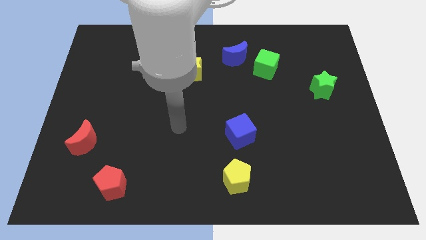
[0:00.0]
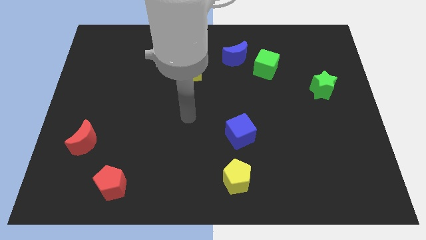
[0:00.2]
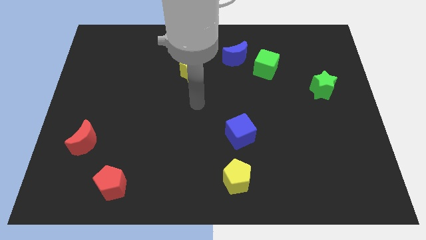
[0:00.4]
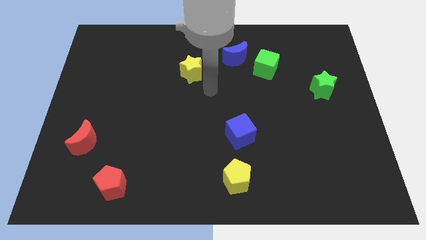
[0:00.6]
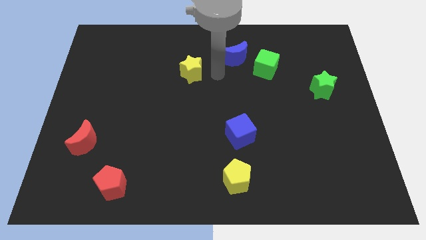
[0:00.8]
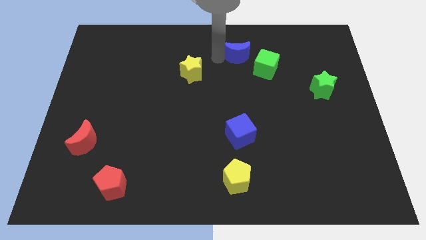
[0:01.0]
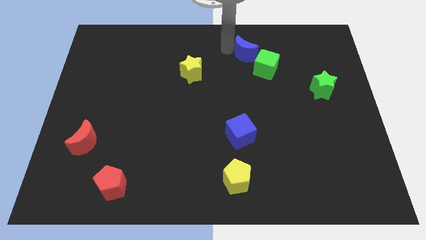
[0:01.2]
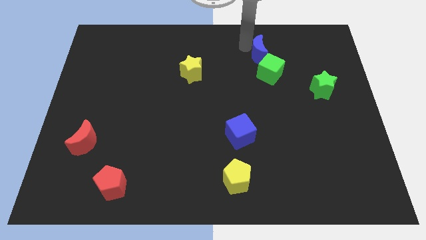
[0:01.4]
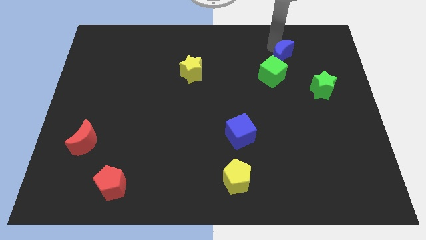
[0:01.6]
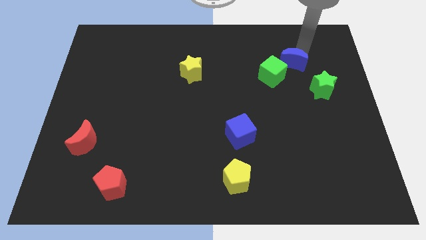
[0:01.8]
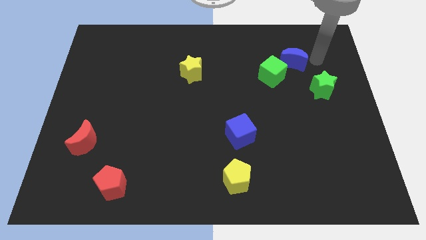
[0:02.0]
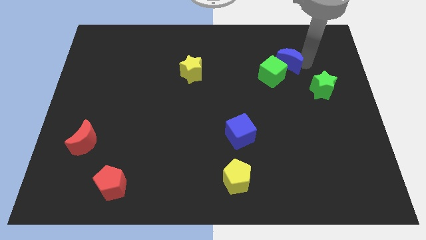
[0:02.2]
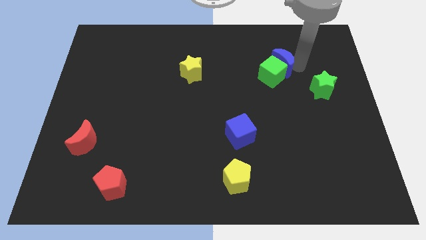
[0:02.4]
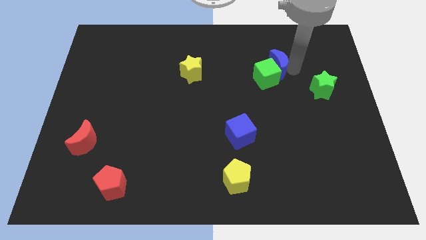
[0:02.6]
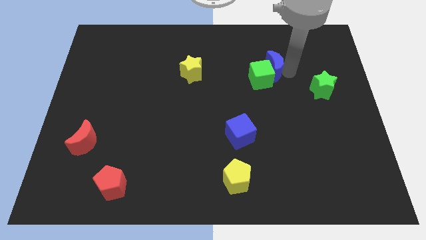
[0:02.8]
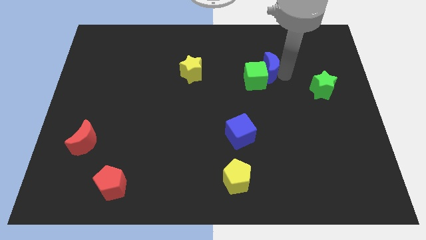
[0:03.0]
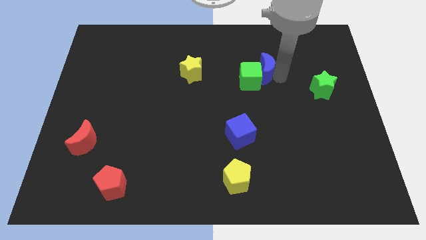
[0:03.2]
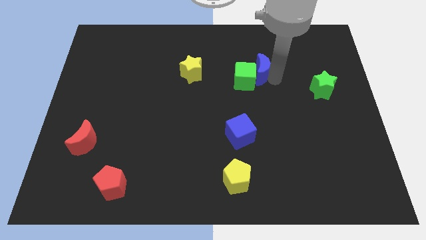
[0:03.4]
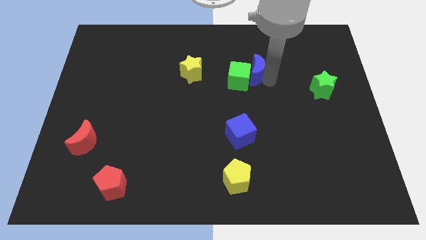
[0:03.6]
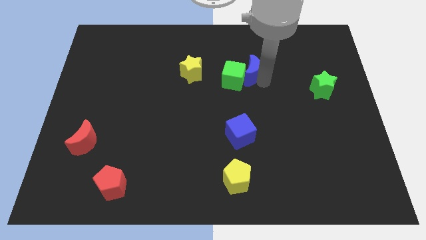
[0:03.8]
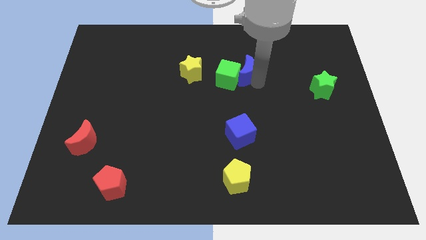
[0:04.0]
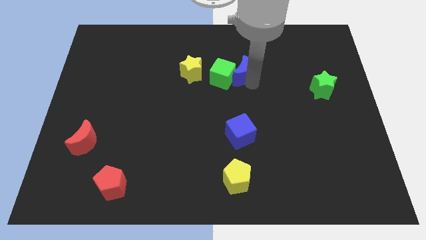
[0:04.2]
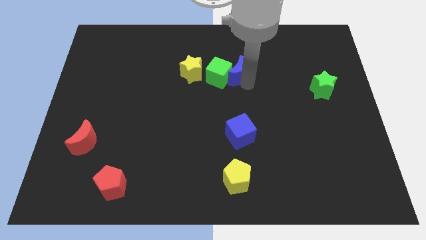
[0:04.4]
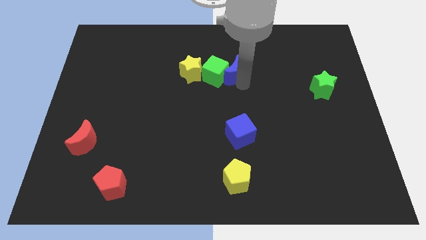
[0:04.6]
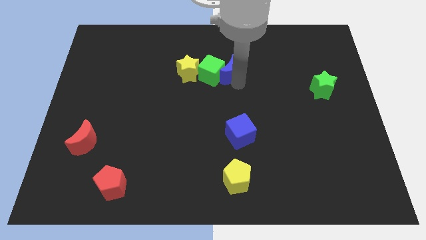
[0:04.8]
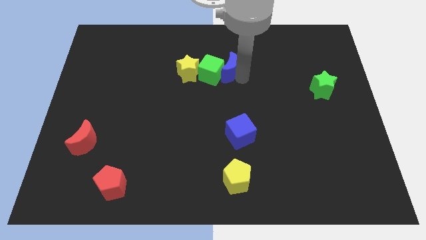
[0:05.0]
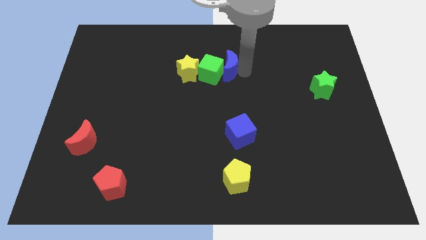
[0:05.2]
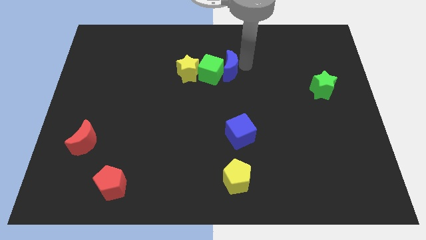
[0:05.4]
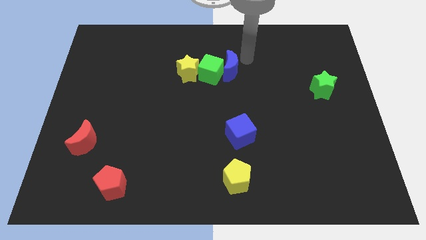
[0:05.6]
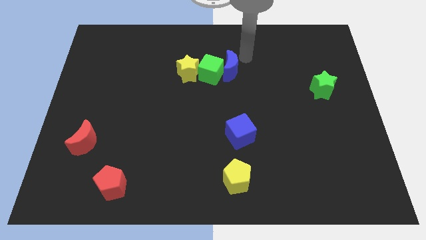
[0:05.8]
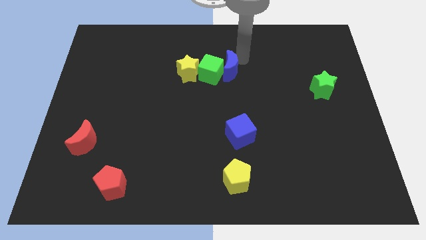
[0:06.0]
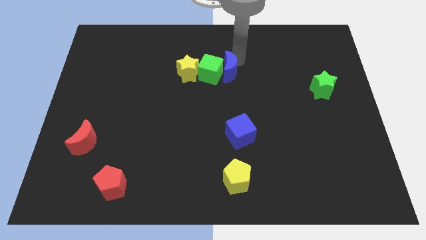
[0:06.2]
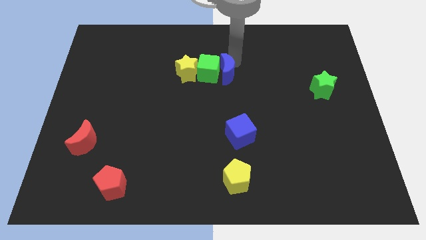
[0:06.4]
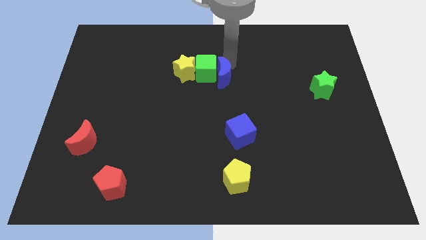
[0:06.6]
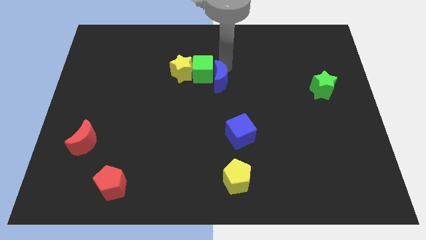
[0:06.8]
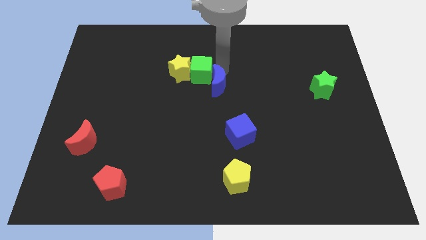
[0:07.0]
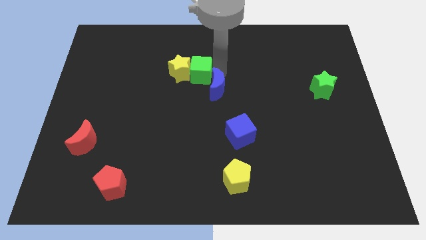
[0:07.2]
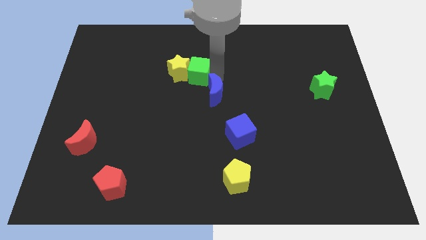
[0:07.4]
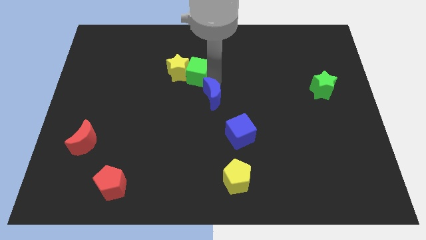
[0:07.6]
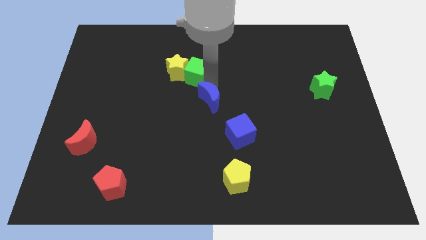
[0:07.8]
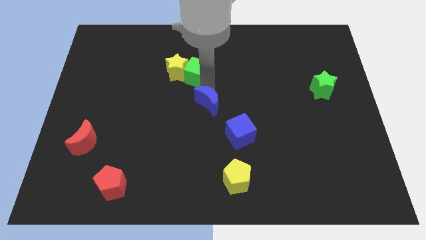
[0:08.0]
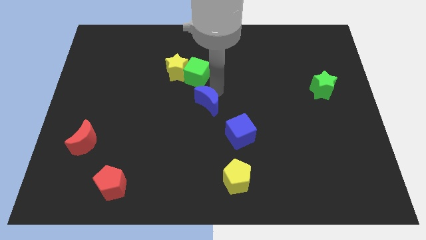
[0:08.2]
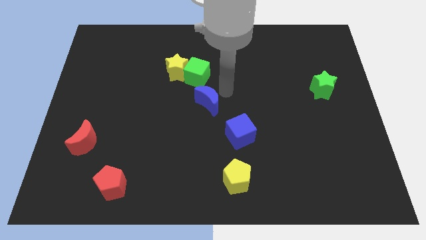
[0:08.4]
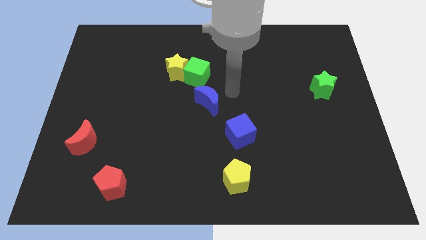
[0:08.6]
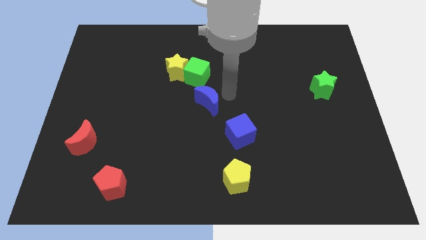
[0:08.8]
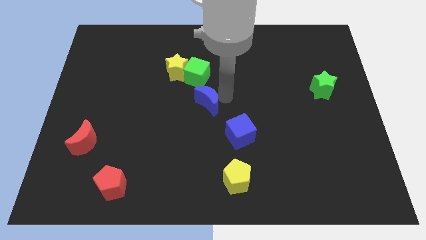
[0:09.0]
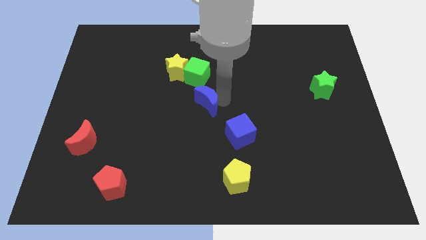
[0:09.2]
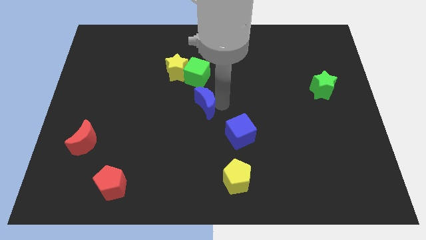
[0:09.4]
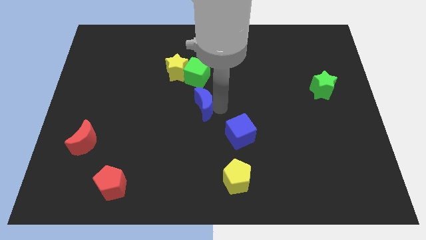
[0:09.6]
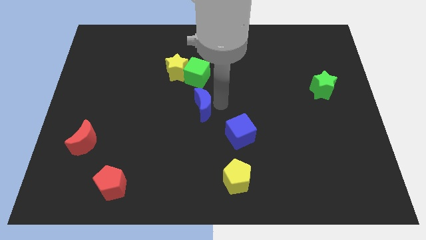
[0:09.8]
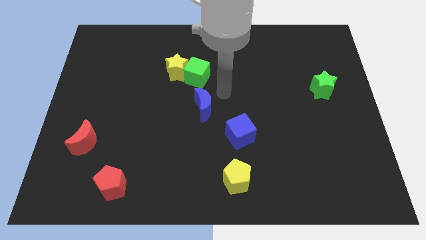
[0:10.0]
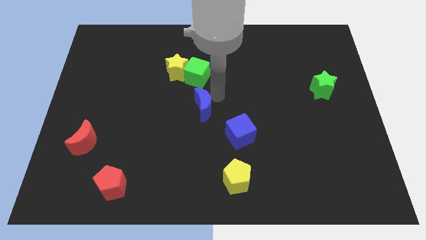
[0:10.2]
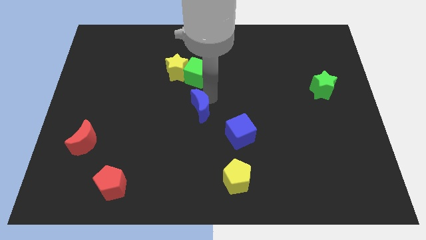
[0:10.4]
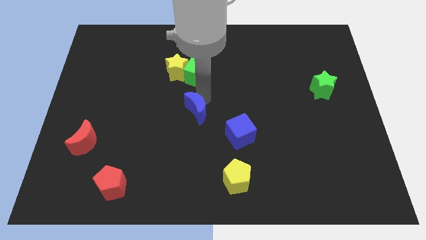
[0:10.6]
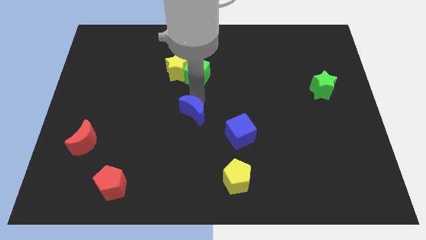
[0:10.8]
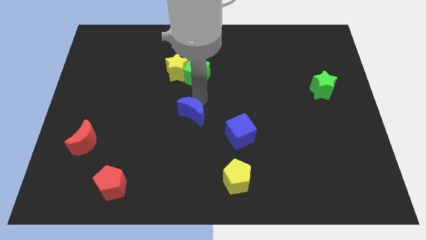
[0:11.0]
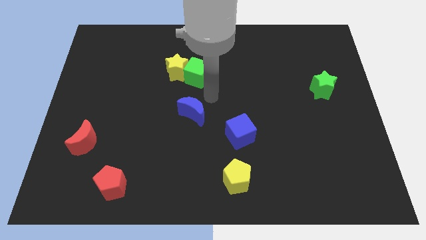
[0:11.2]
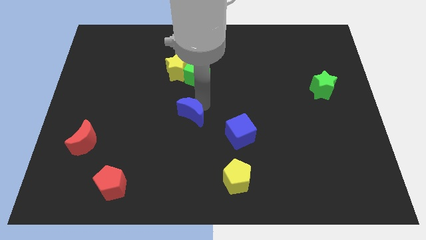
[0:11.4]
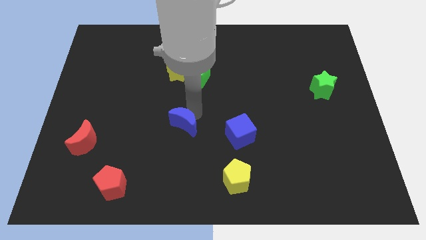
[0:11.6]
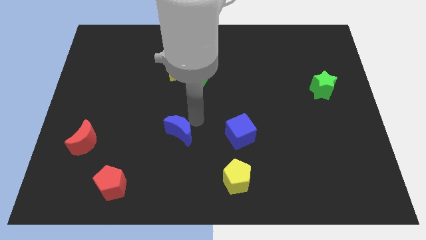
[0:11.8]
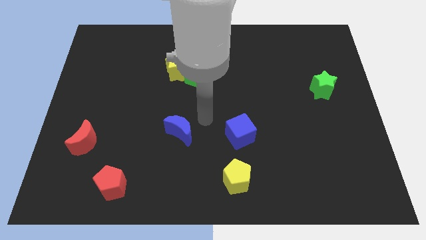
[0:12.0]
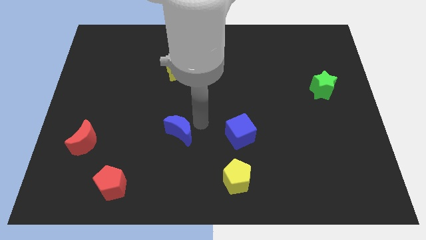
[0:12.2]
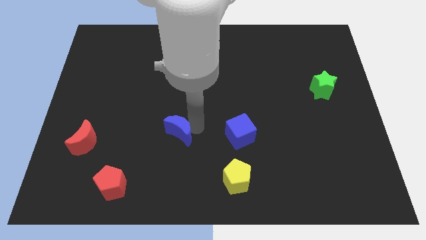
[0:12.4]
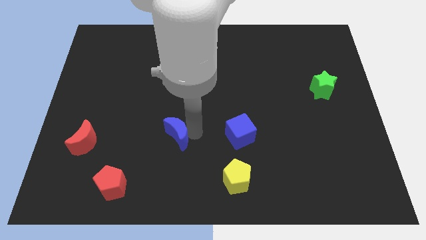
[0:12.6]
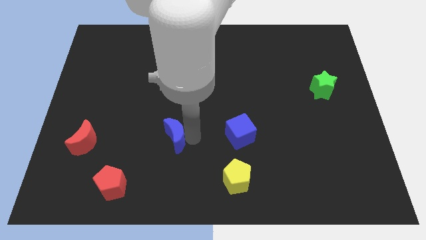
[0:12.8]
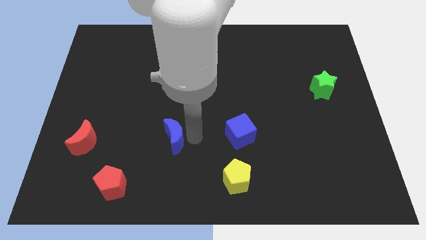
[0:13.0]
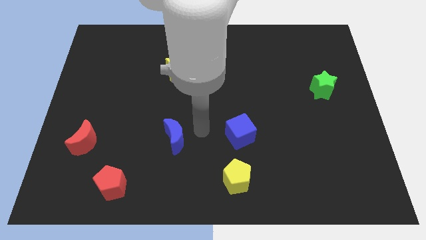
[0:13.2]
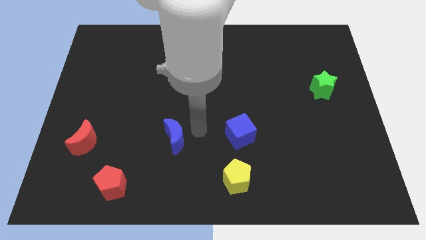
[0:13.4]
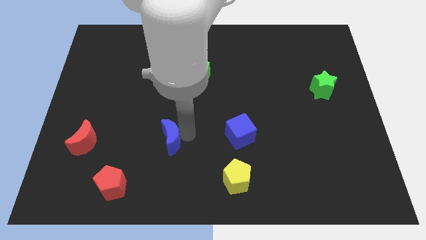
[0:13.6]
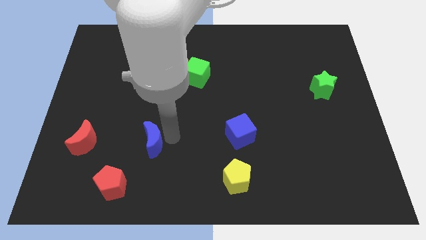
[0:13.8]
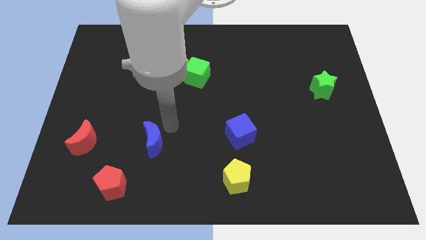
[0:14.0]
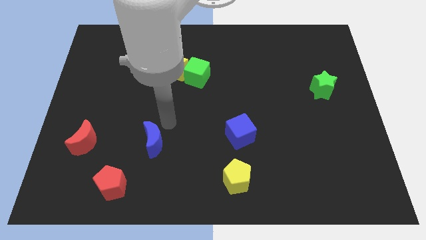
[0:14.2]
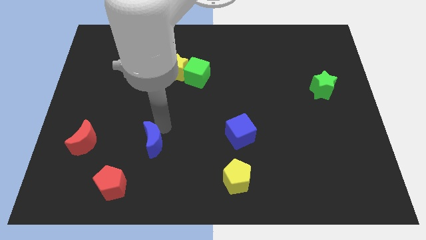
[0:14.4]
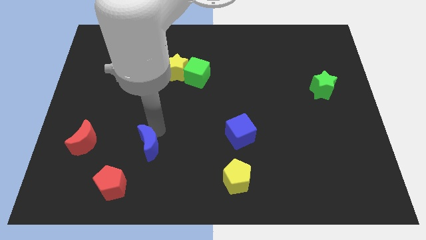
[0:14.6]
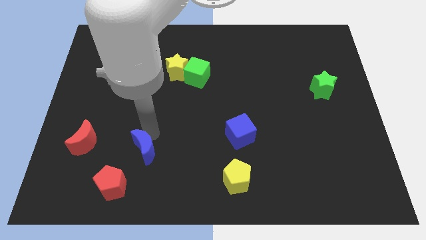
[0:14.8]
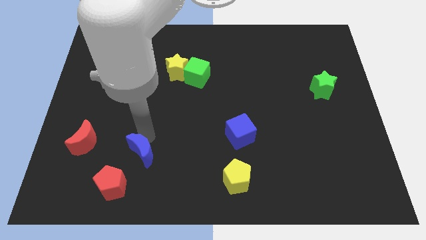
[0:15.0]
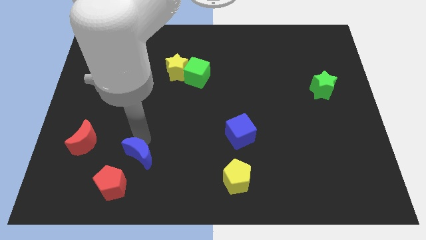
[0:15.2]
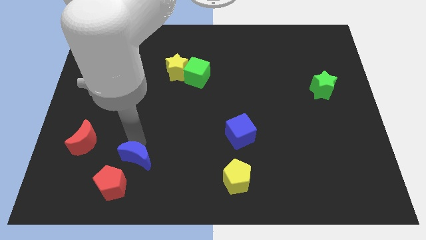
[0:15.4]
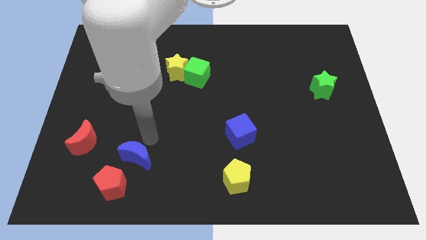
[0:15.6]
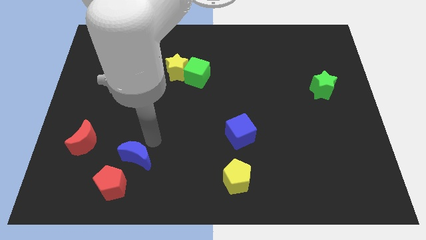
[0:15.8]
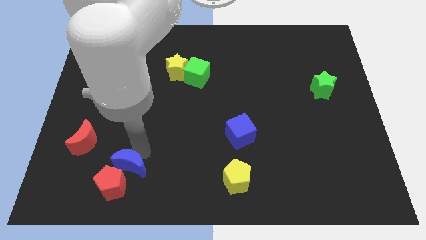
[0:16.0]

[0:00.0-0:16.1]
move the blue moon close to the red pentagon
